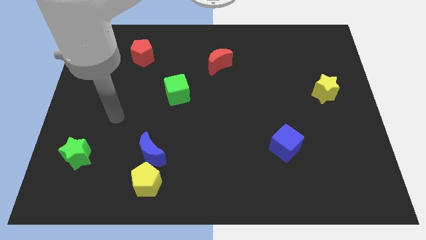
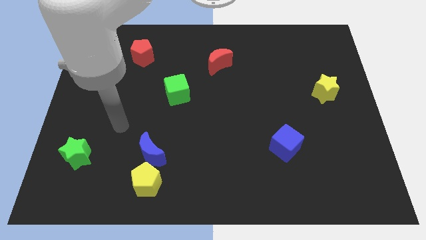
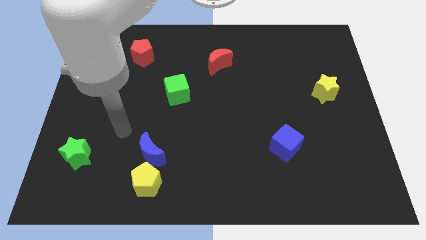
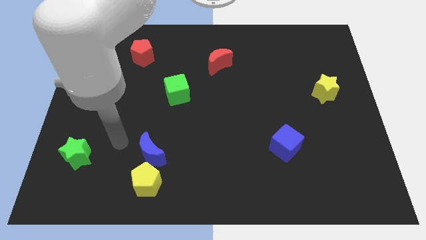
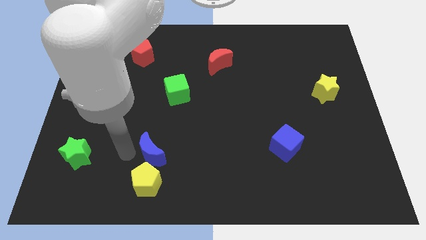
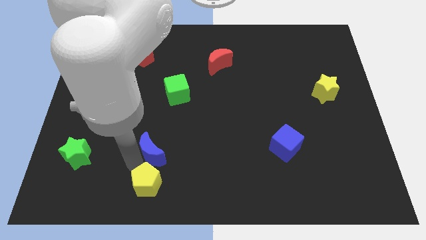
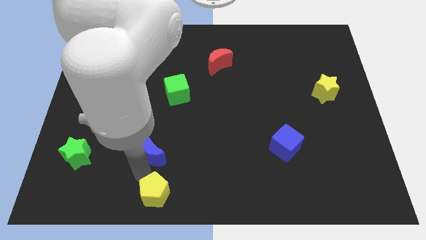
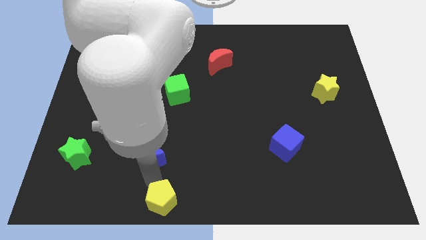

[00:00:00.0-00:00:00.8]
move the blue moon away from the yellow pentagon

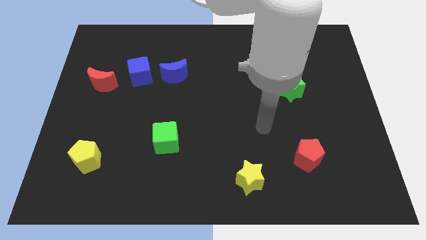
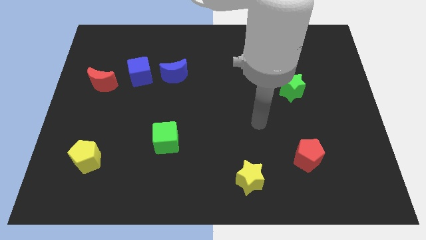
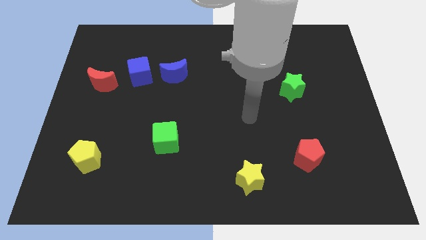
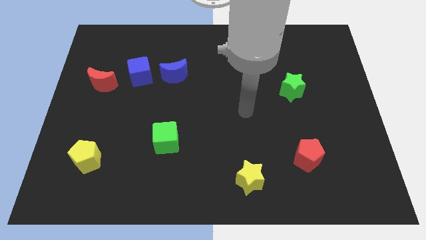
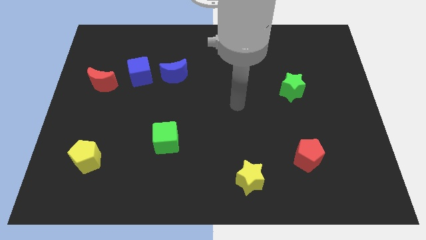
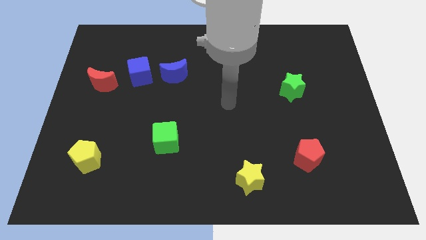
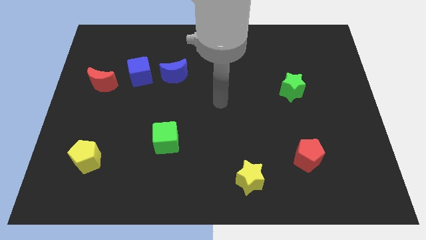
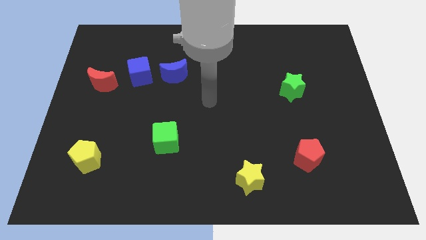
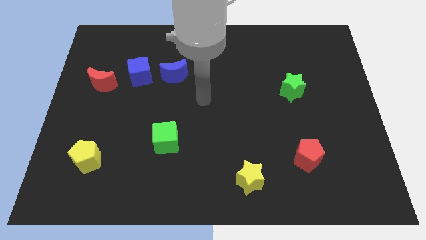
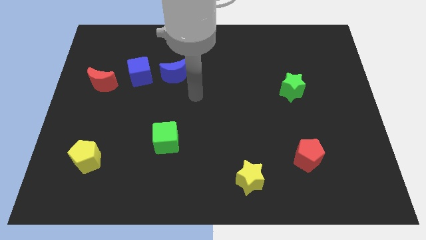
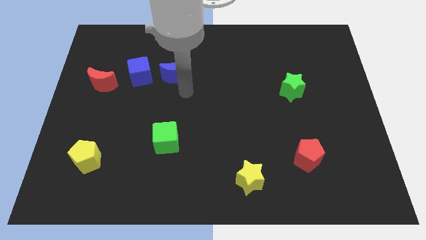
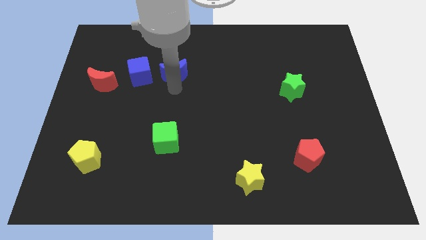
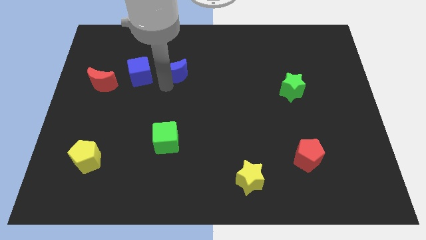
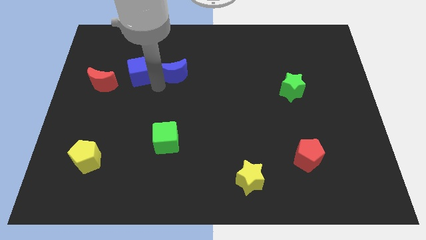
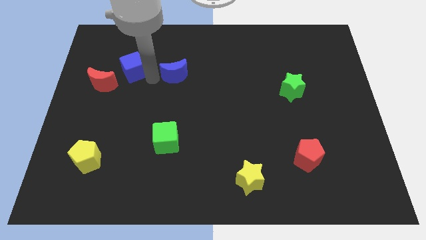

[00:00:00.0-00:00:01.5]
move the blue moon away from the blue cube

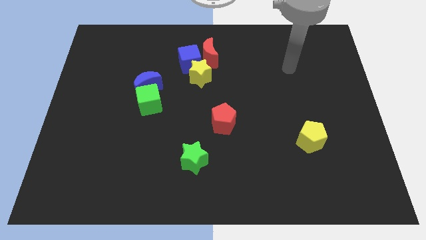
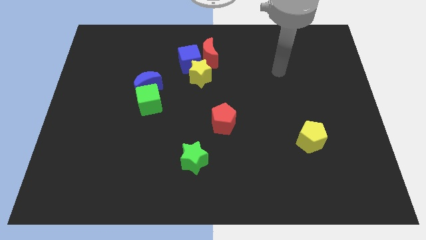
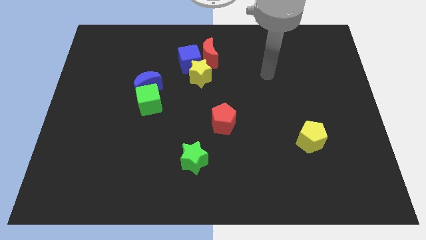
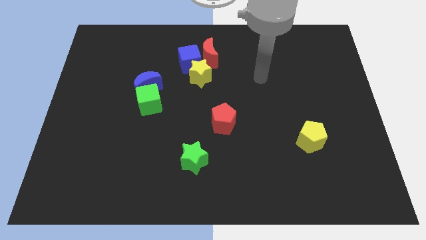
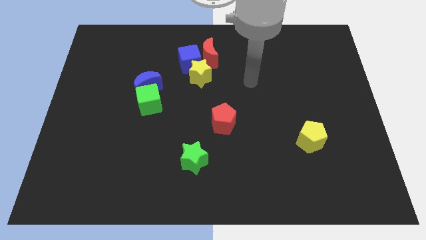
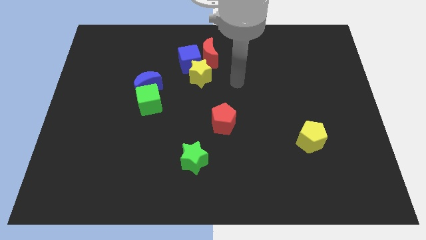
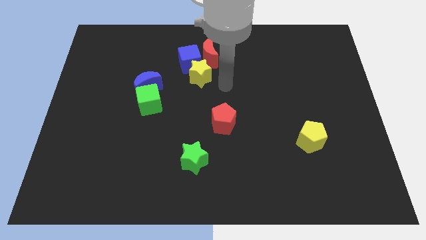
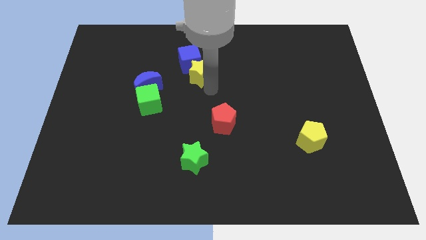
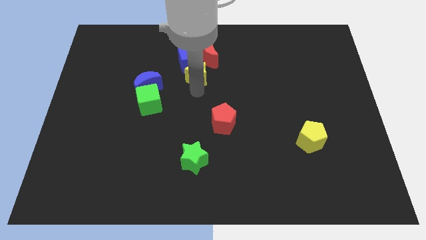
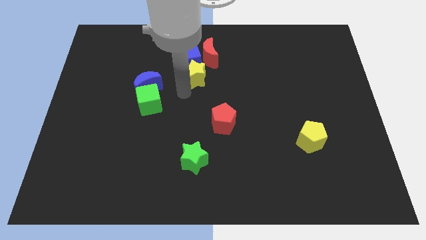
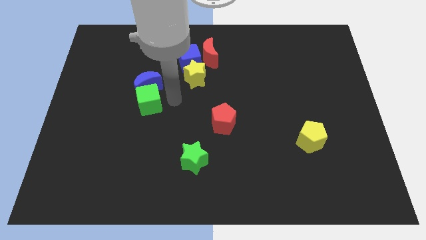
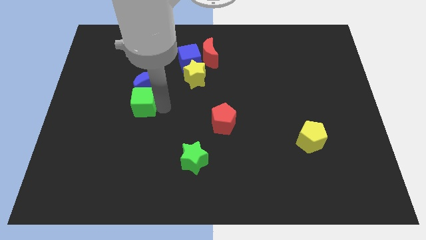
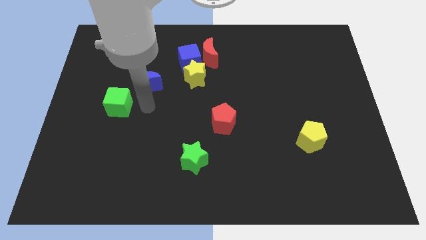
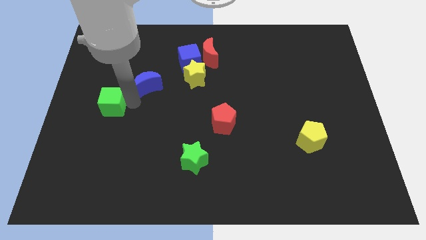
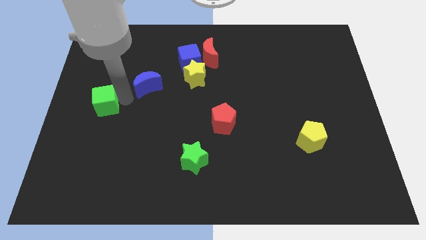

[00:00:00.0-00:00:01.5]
pull the blue moon apart from the green cube

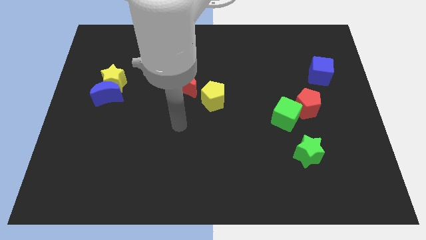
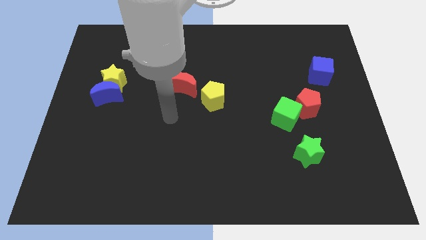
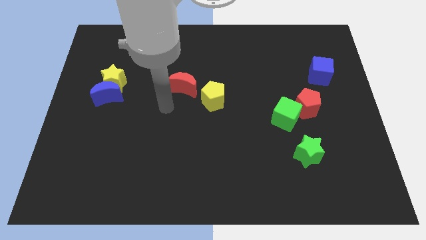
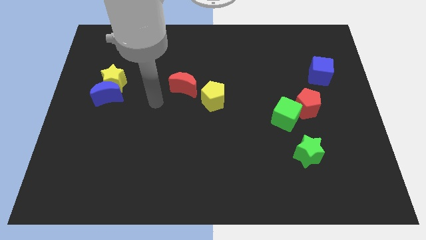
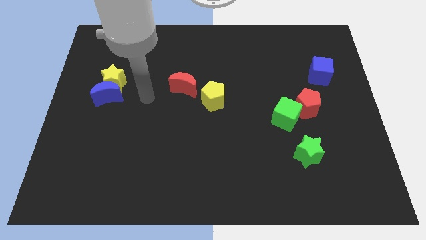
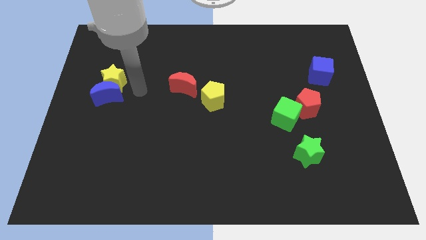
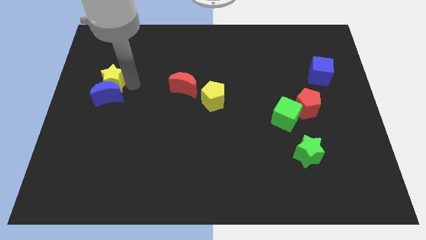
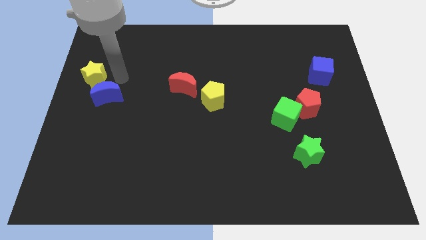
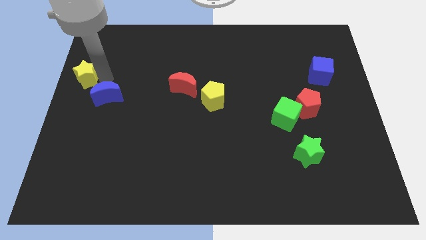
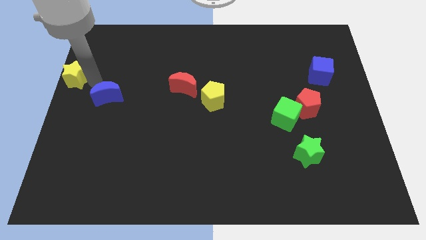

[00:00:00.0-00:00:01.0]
separate the blue moon from the yellow star

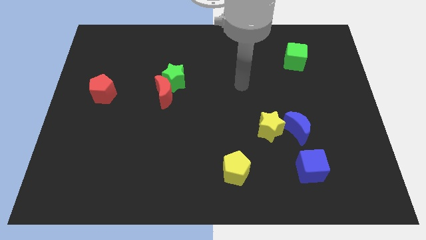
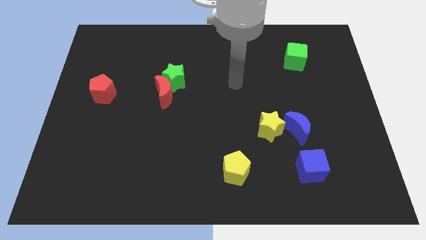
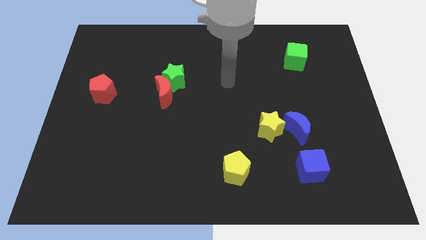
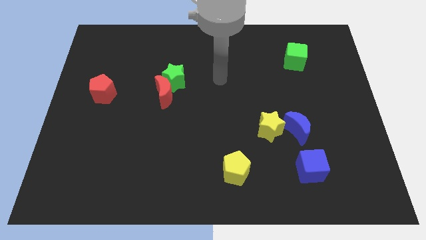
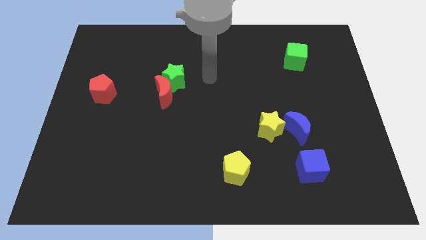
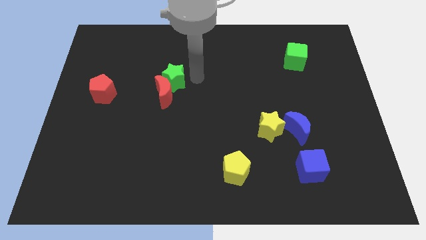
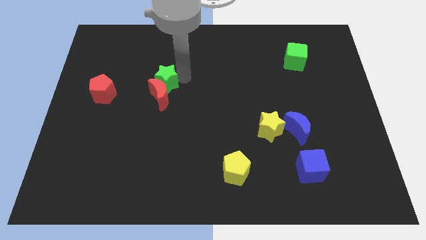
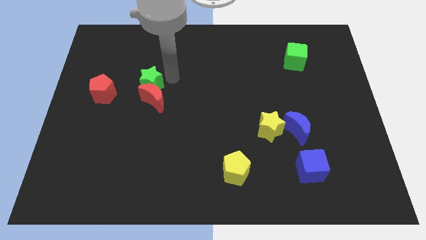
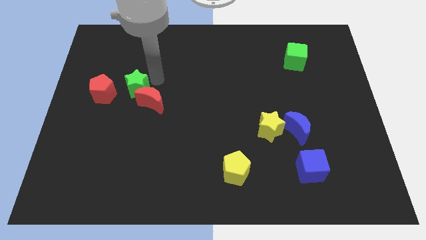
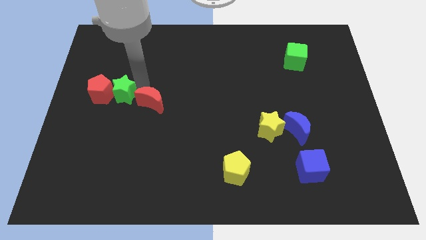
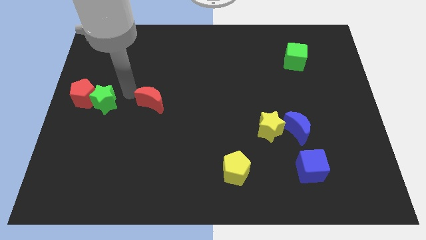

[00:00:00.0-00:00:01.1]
pull the red moon apart from the green star

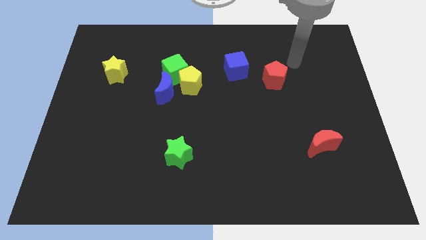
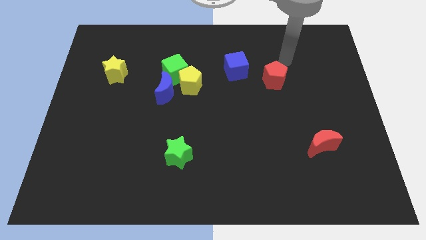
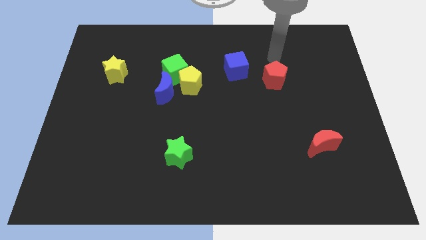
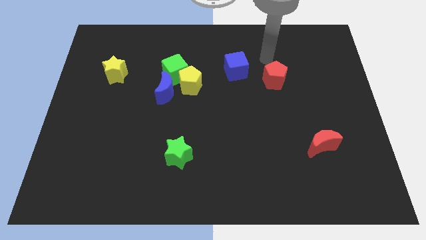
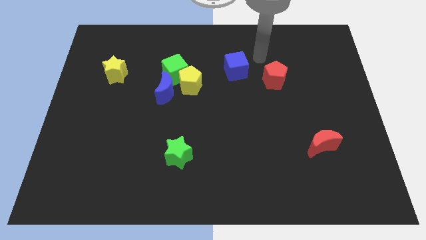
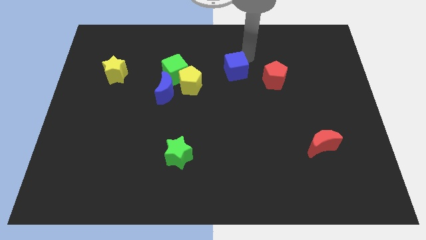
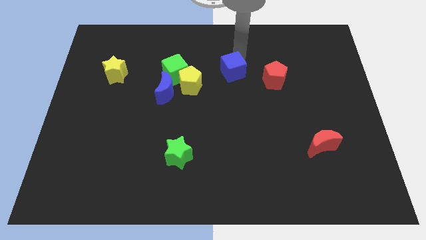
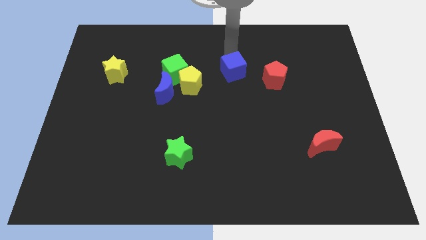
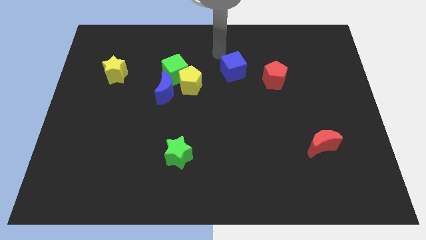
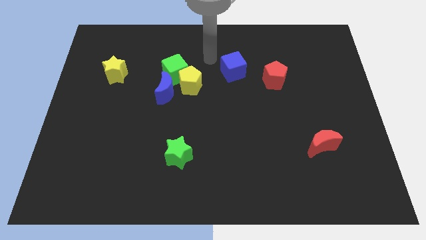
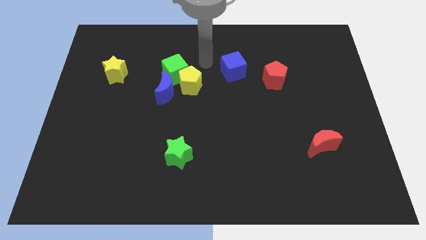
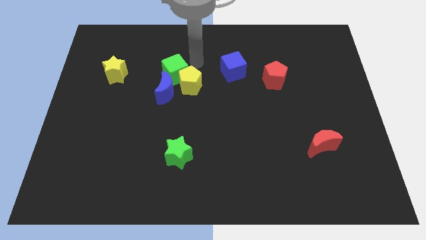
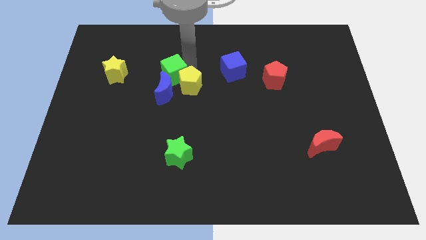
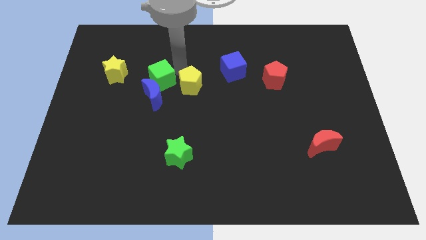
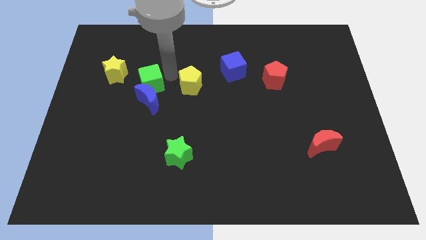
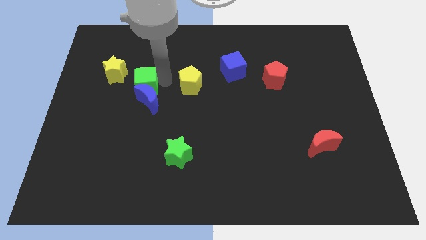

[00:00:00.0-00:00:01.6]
separate the yellow pentagon from the green cube and blue moon

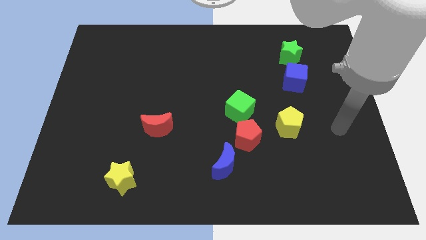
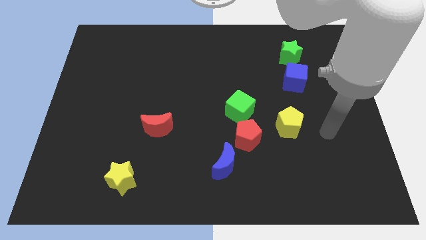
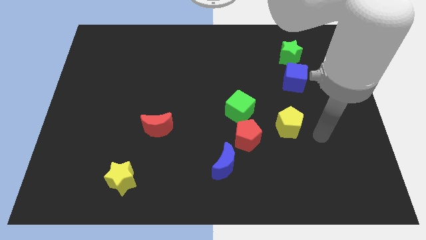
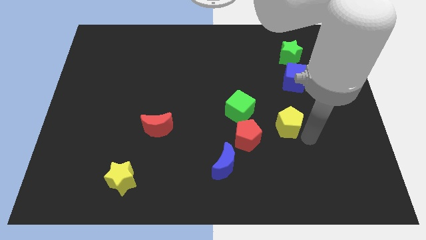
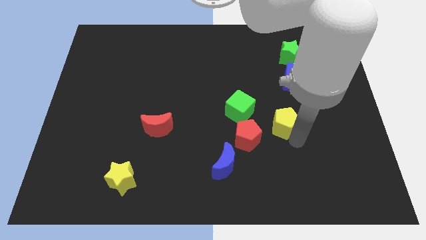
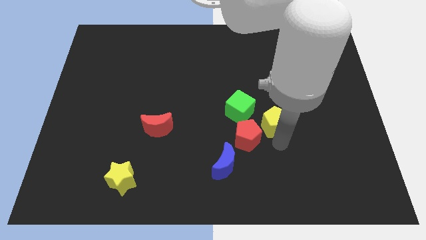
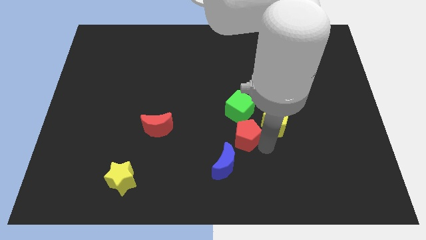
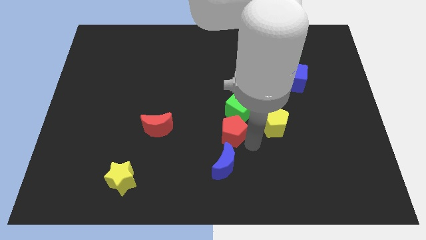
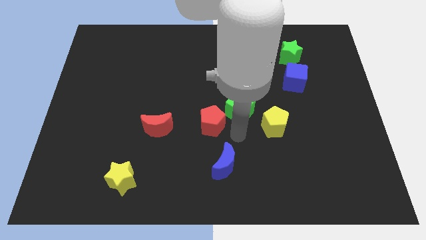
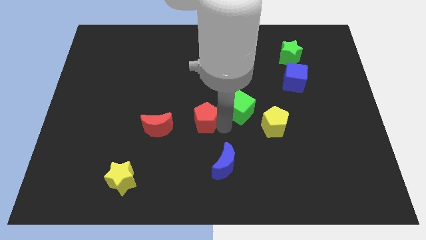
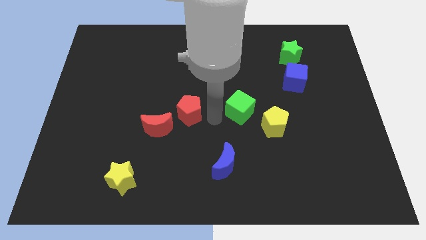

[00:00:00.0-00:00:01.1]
move the green cube away from the red pentagon

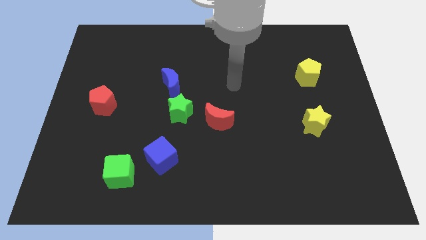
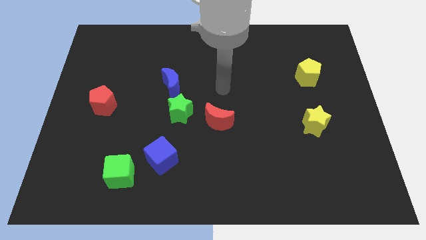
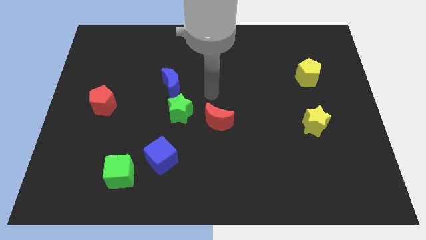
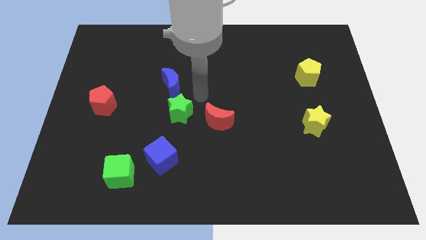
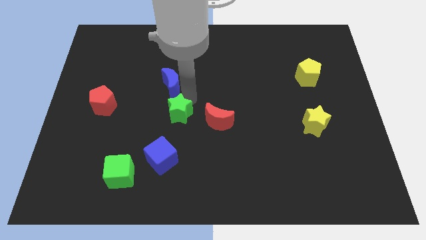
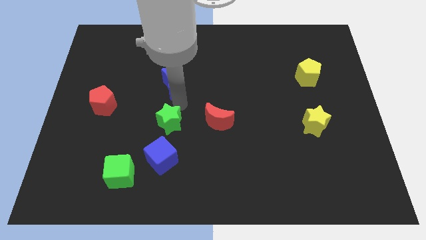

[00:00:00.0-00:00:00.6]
pull the blue moon apart from the green star

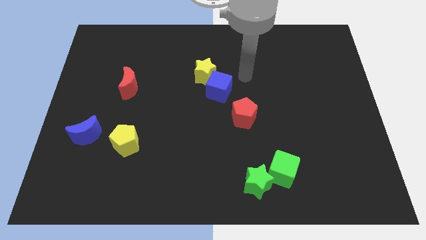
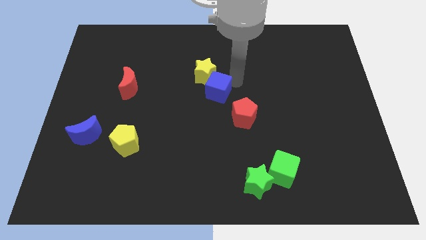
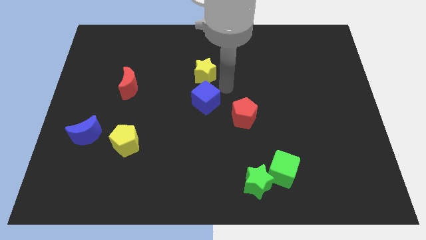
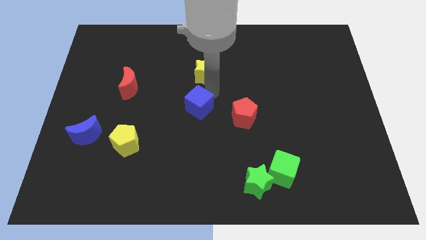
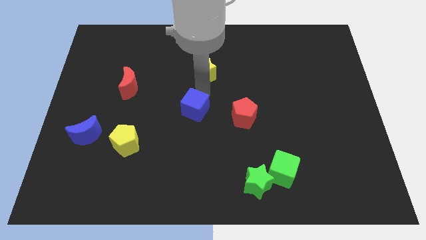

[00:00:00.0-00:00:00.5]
separate the yellow star from the blue cube
